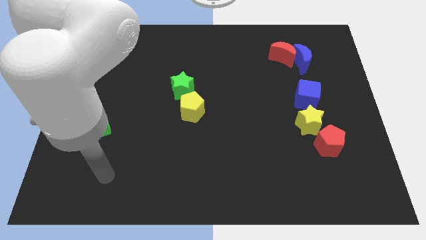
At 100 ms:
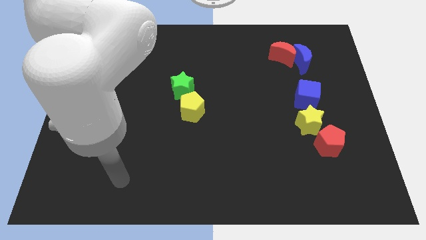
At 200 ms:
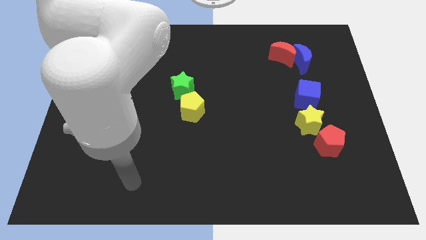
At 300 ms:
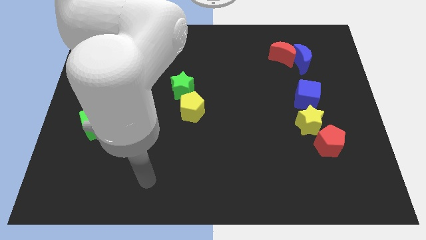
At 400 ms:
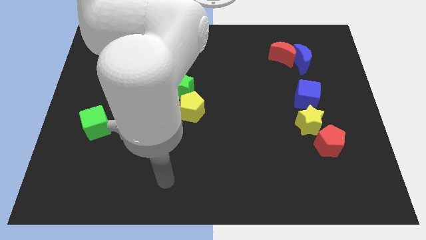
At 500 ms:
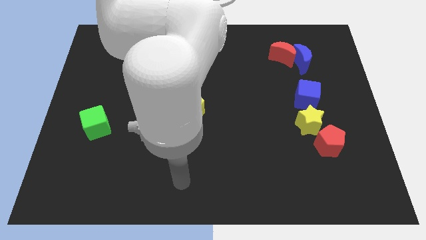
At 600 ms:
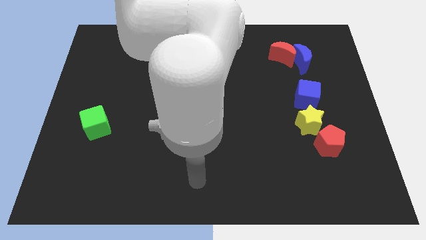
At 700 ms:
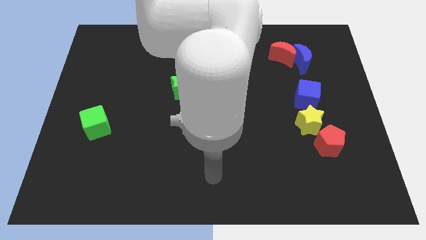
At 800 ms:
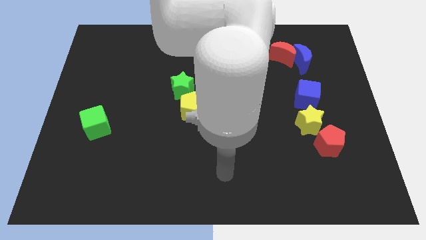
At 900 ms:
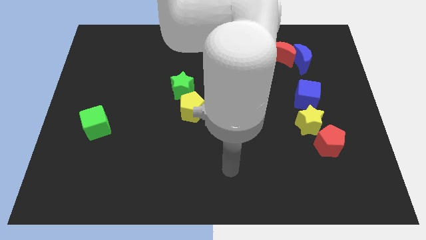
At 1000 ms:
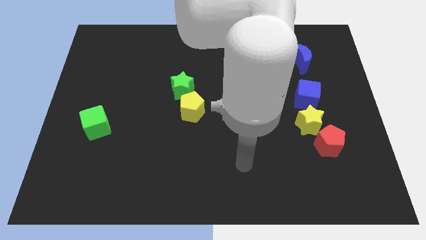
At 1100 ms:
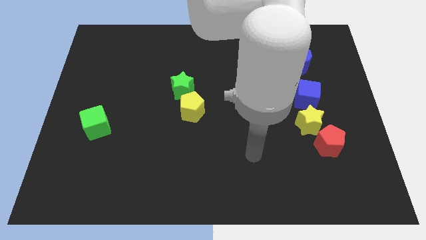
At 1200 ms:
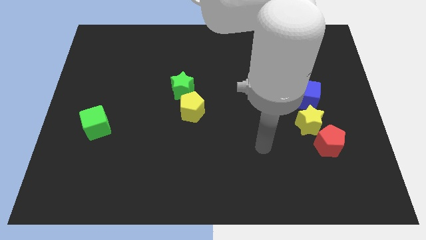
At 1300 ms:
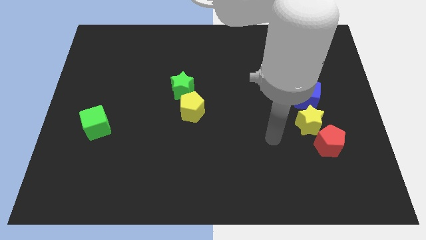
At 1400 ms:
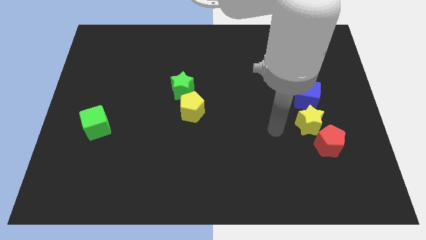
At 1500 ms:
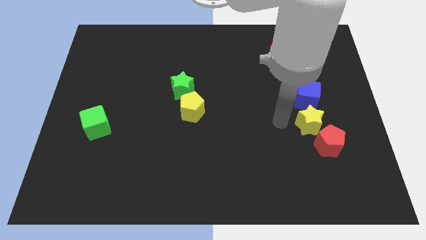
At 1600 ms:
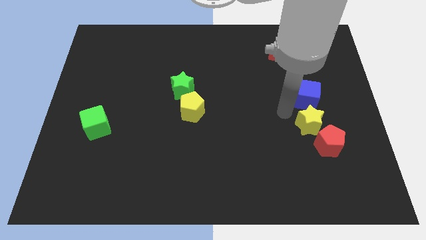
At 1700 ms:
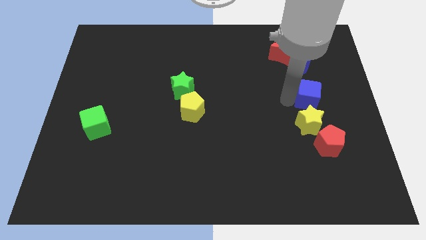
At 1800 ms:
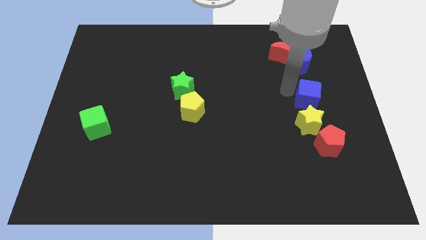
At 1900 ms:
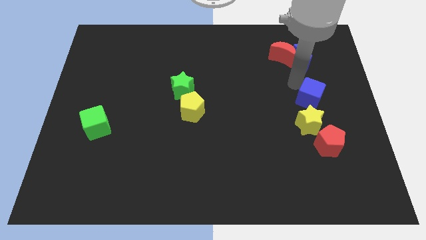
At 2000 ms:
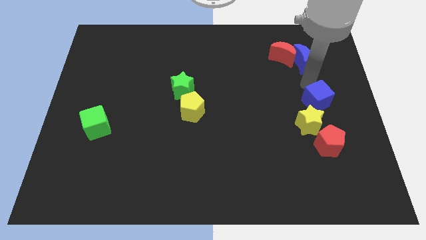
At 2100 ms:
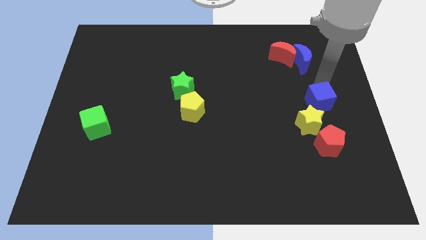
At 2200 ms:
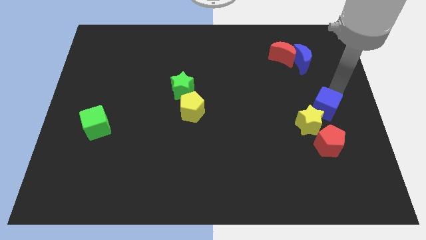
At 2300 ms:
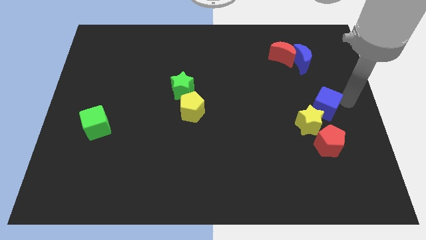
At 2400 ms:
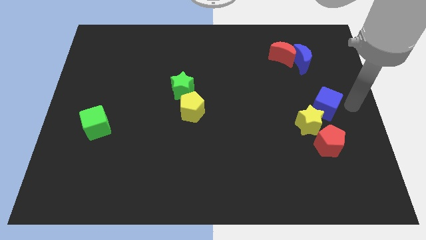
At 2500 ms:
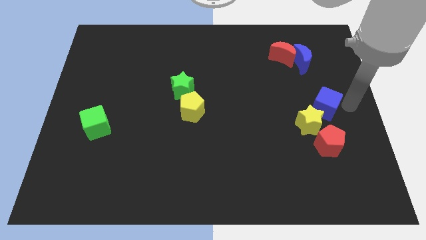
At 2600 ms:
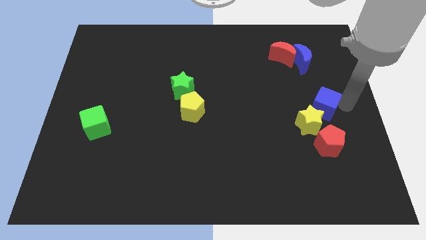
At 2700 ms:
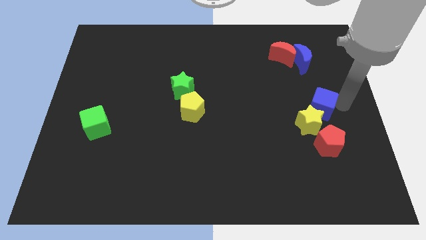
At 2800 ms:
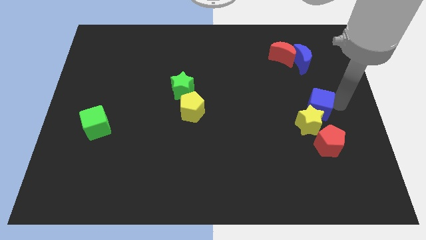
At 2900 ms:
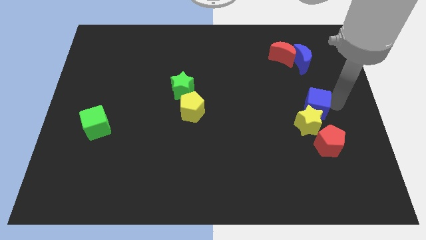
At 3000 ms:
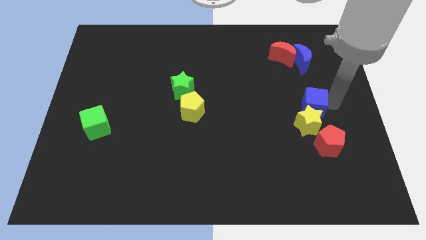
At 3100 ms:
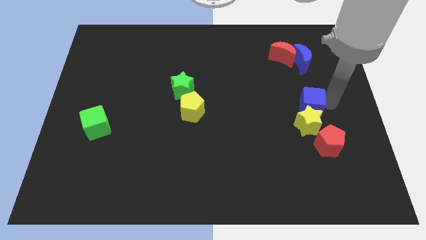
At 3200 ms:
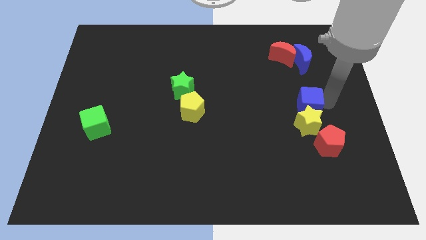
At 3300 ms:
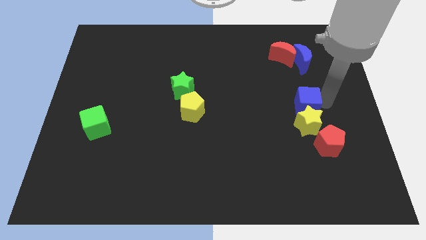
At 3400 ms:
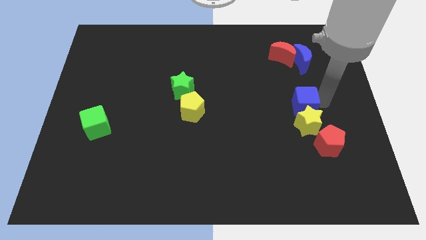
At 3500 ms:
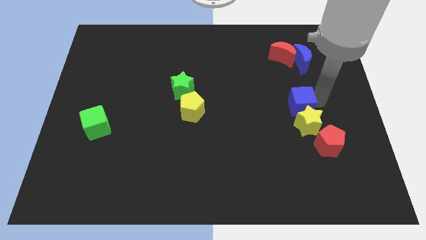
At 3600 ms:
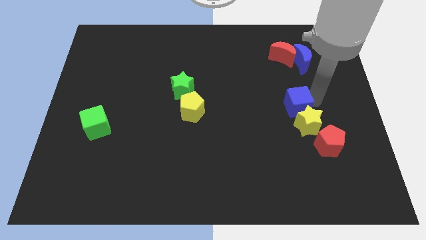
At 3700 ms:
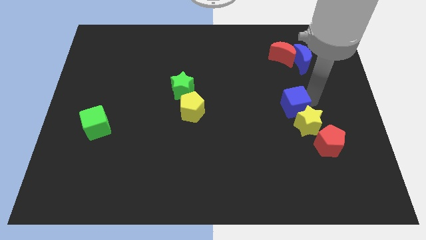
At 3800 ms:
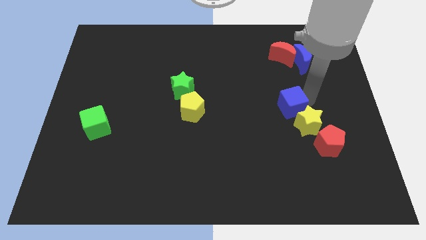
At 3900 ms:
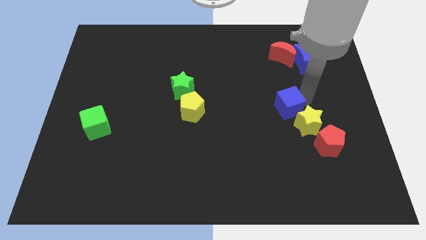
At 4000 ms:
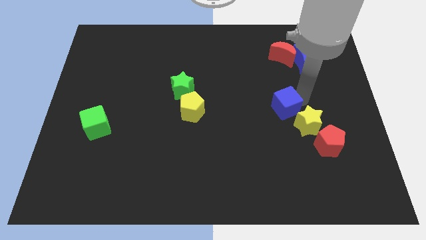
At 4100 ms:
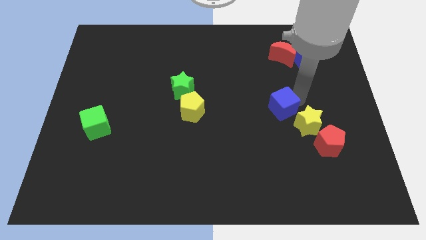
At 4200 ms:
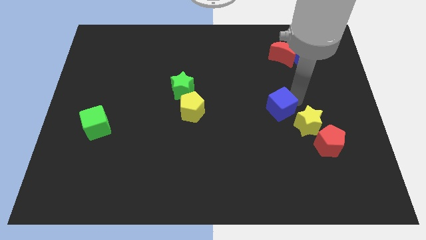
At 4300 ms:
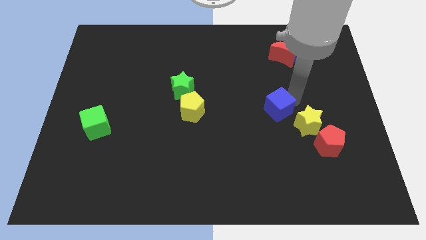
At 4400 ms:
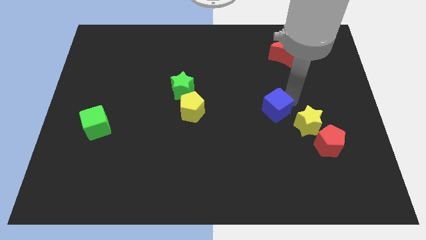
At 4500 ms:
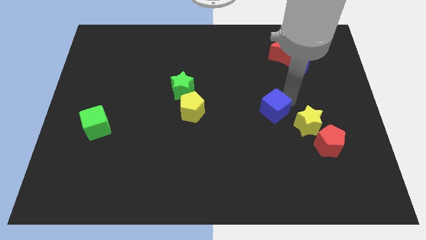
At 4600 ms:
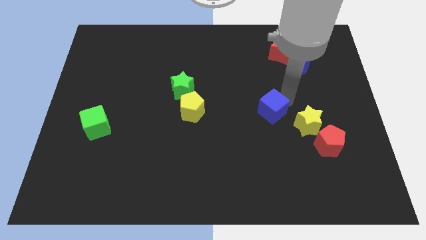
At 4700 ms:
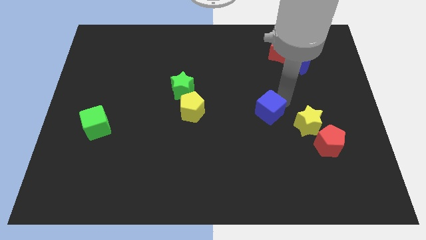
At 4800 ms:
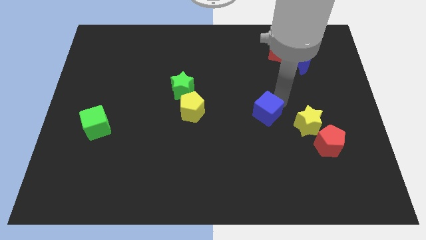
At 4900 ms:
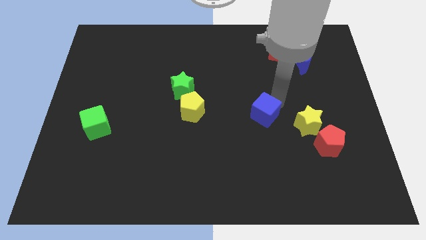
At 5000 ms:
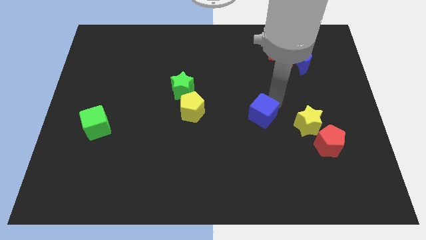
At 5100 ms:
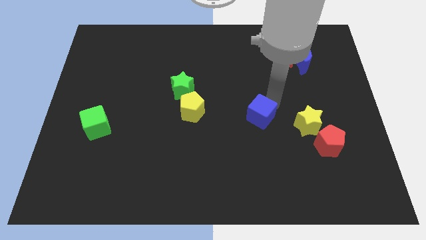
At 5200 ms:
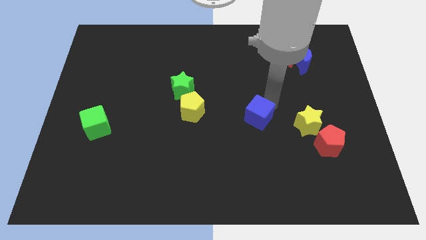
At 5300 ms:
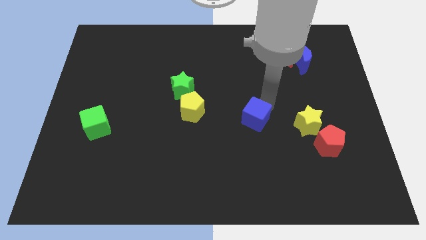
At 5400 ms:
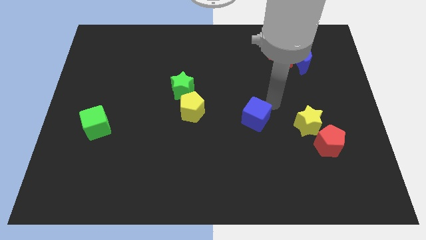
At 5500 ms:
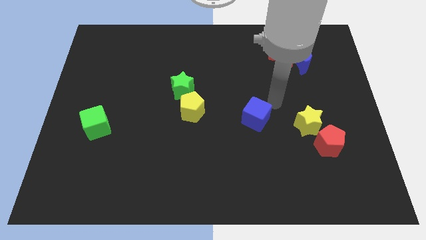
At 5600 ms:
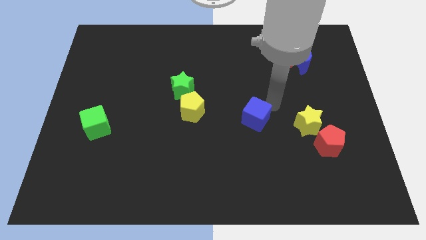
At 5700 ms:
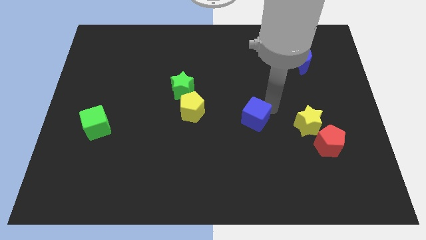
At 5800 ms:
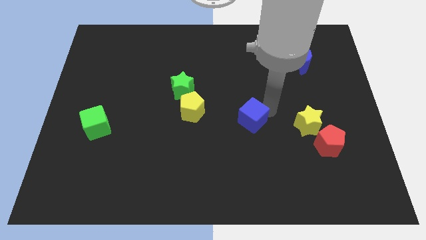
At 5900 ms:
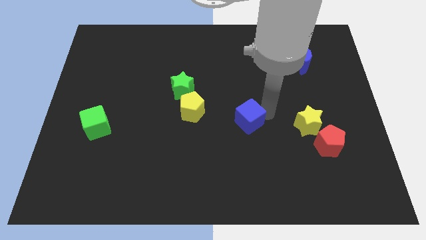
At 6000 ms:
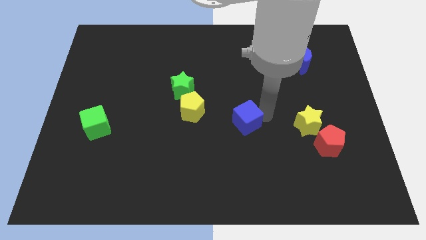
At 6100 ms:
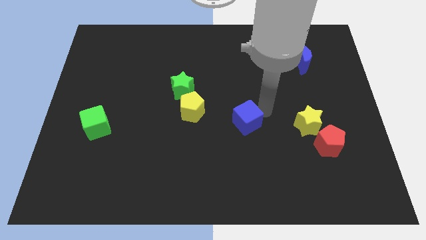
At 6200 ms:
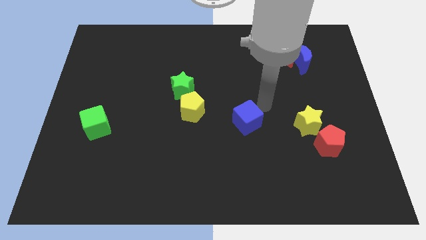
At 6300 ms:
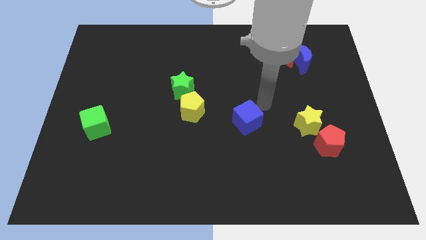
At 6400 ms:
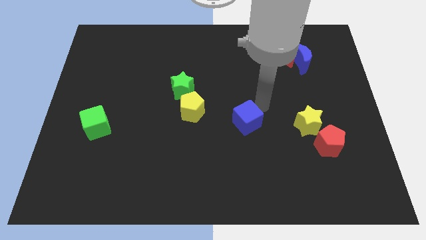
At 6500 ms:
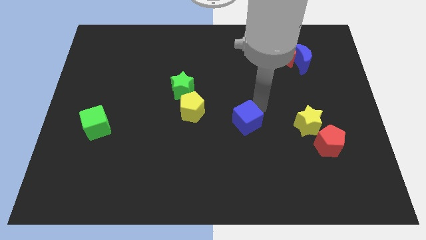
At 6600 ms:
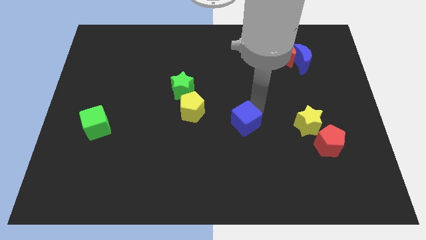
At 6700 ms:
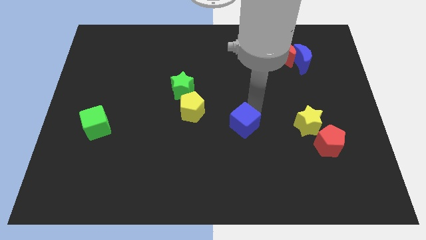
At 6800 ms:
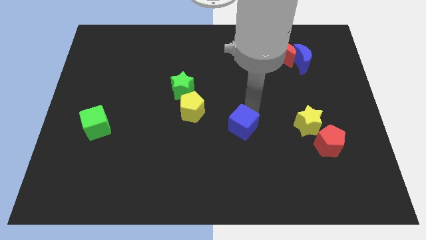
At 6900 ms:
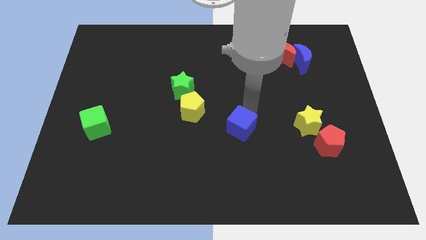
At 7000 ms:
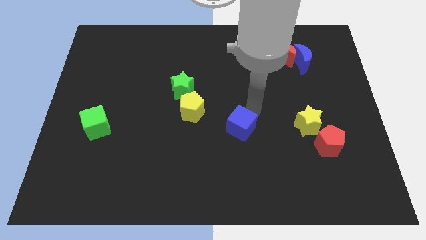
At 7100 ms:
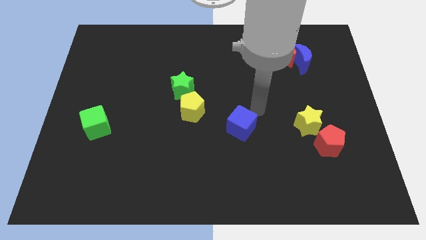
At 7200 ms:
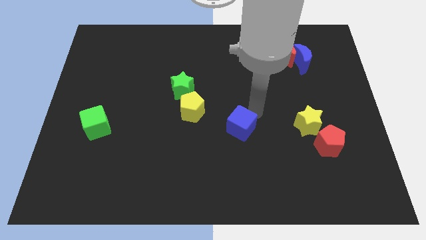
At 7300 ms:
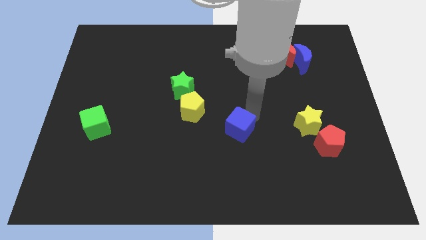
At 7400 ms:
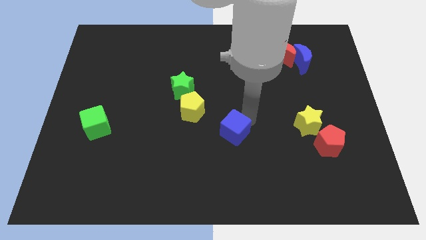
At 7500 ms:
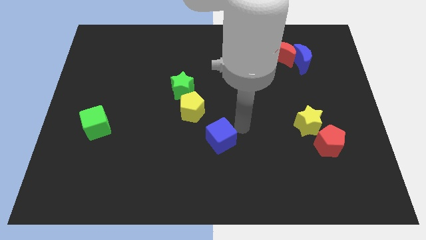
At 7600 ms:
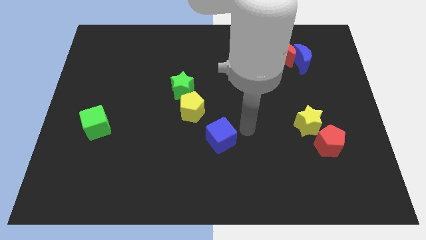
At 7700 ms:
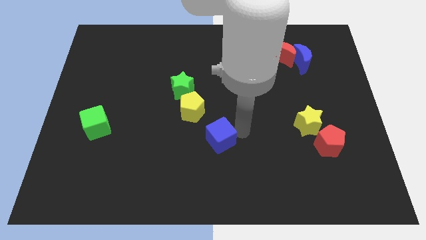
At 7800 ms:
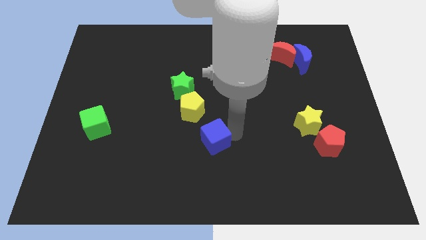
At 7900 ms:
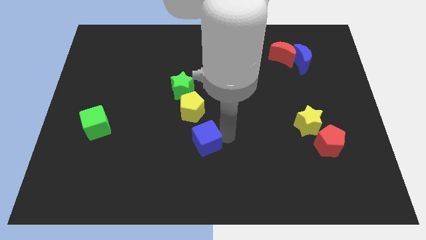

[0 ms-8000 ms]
move the blue cube to the bottom side of the yellow pentagon
